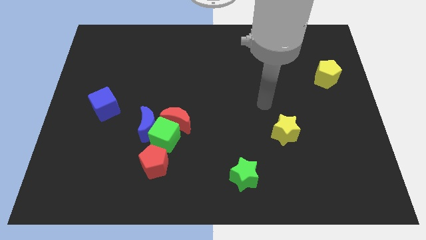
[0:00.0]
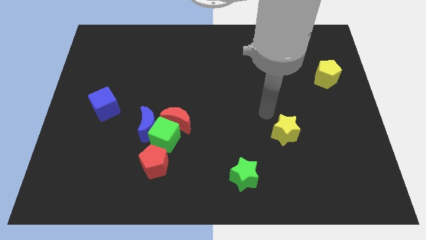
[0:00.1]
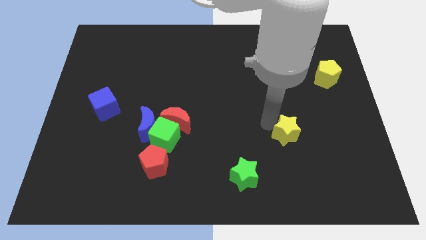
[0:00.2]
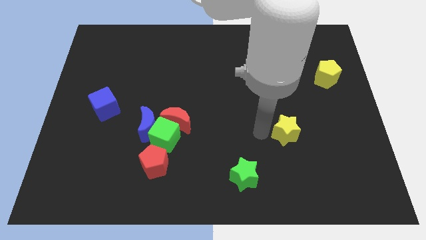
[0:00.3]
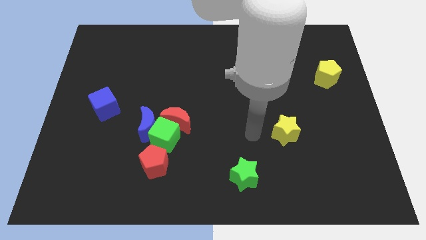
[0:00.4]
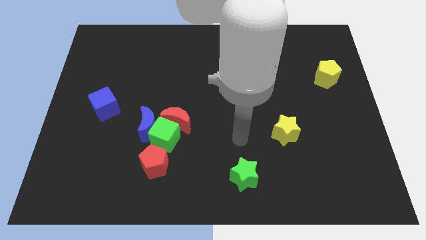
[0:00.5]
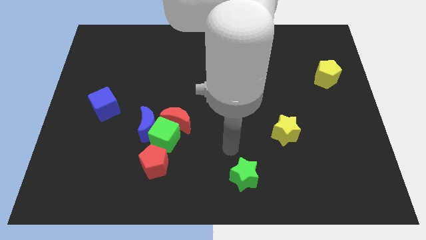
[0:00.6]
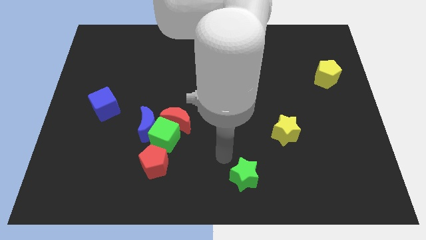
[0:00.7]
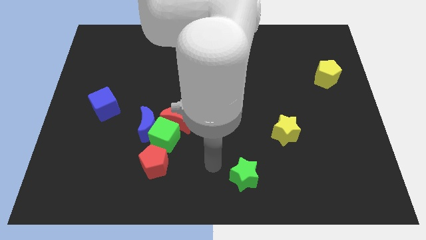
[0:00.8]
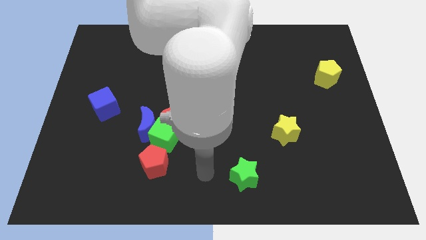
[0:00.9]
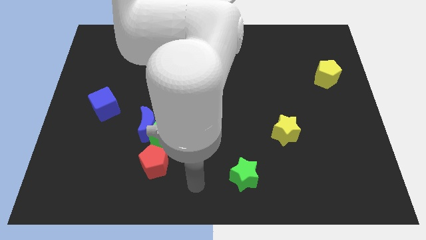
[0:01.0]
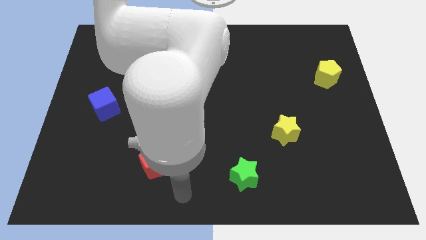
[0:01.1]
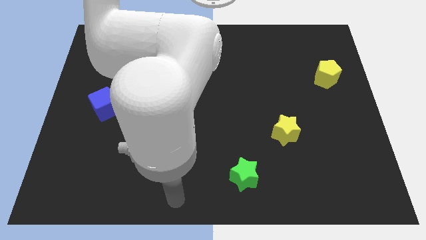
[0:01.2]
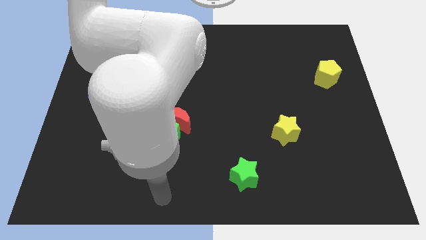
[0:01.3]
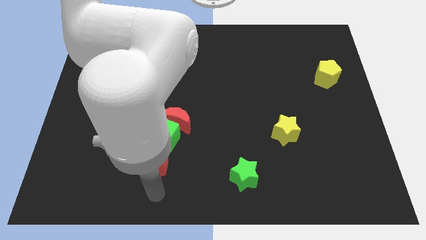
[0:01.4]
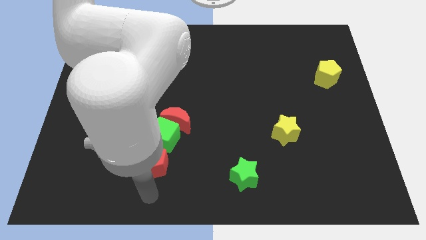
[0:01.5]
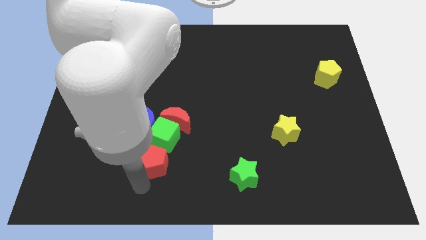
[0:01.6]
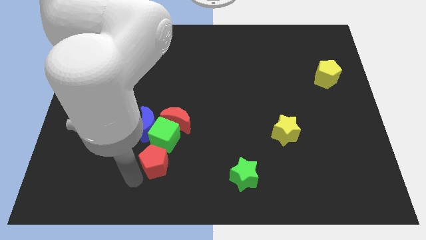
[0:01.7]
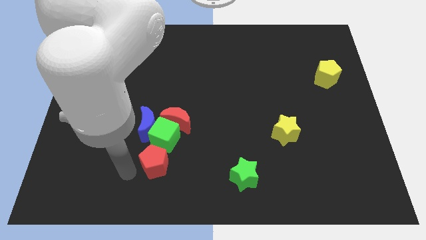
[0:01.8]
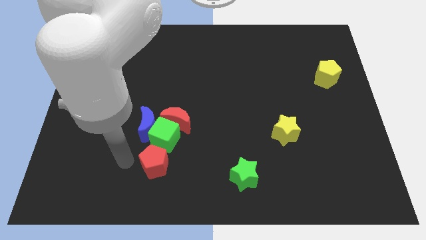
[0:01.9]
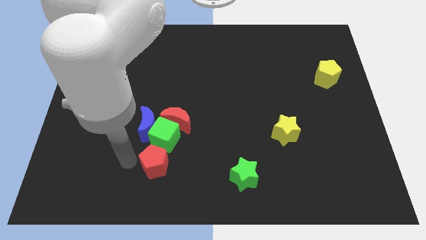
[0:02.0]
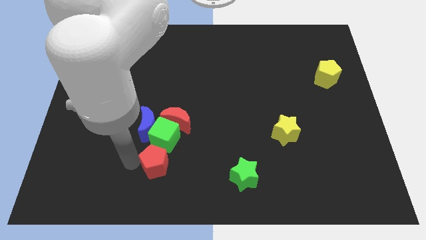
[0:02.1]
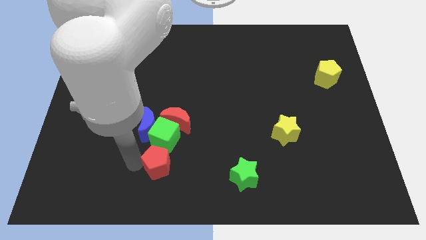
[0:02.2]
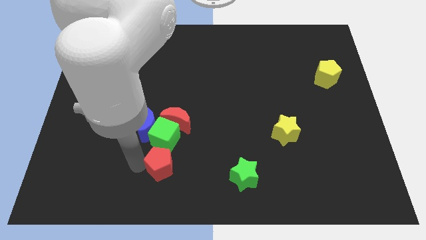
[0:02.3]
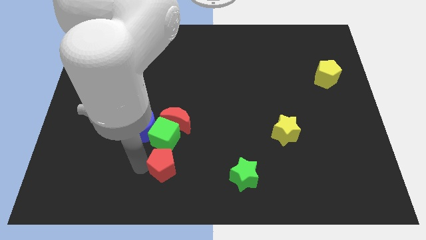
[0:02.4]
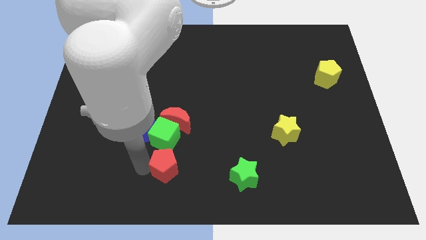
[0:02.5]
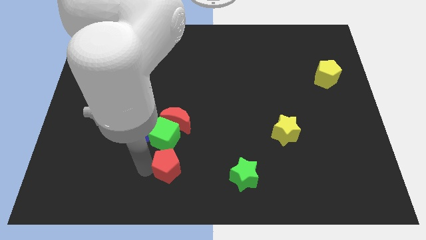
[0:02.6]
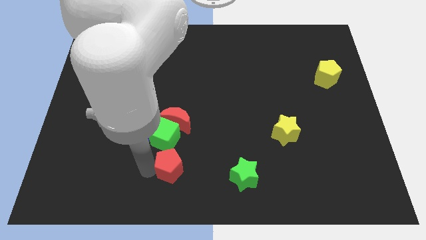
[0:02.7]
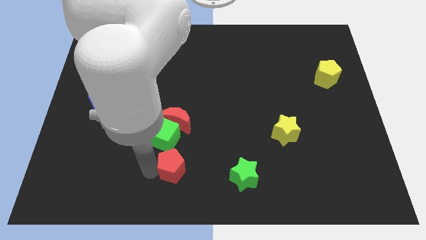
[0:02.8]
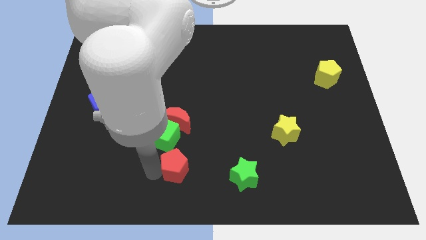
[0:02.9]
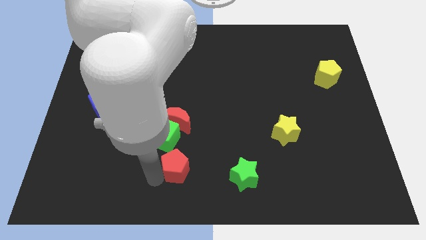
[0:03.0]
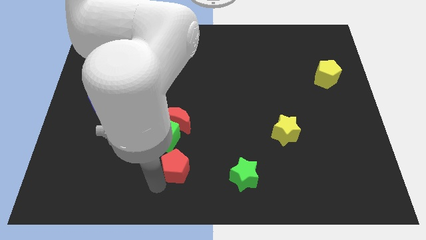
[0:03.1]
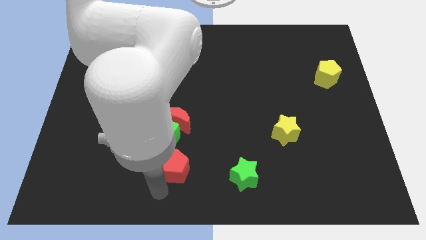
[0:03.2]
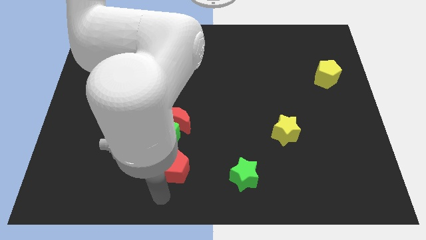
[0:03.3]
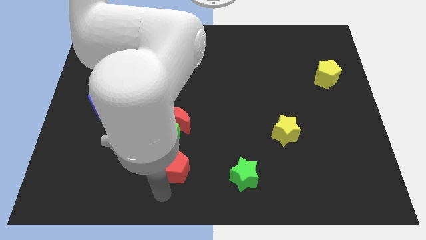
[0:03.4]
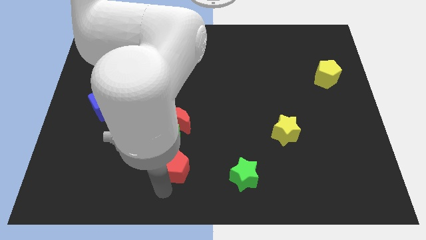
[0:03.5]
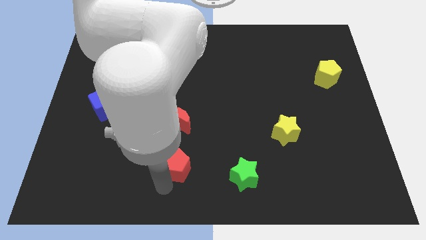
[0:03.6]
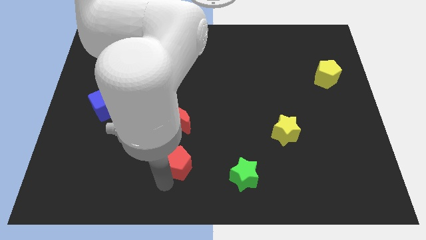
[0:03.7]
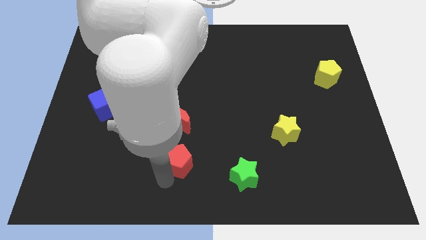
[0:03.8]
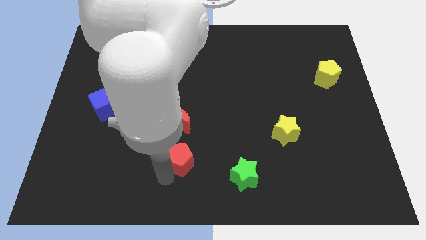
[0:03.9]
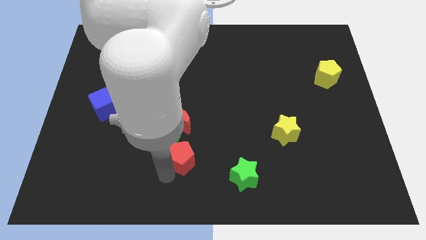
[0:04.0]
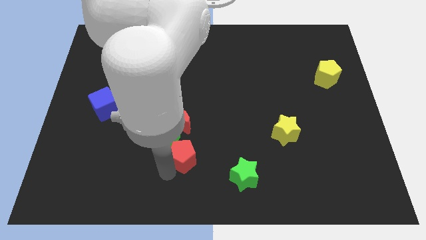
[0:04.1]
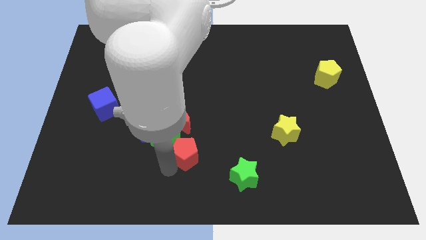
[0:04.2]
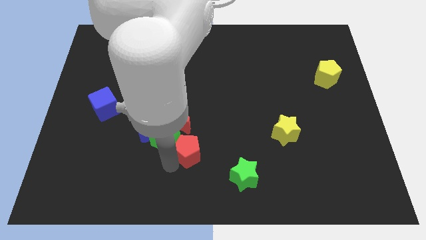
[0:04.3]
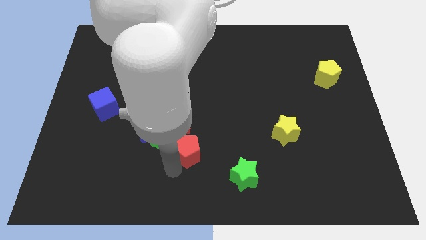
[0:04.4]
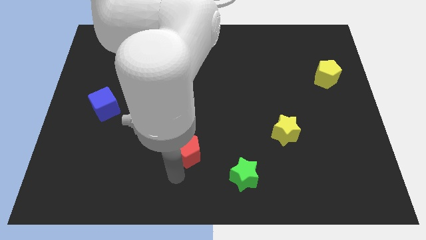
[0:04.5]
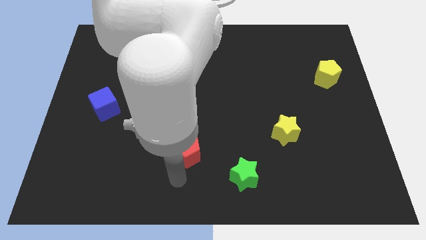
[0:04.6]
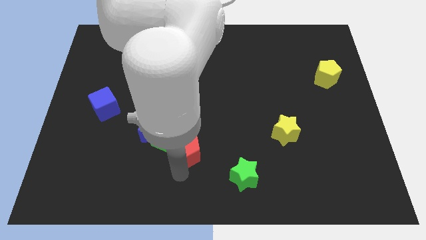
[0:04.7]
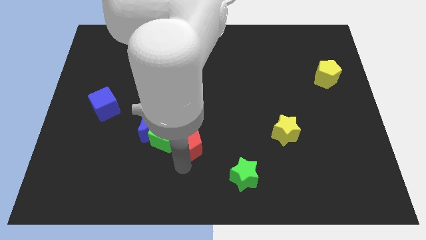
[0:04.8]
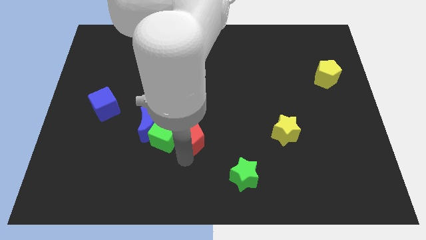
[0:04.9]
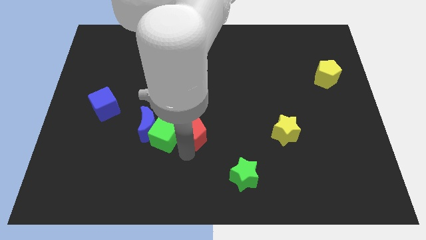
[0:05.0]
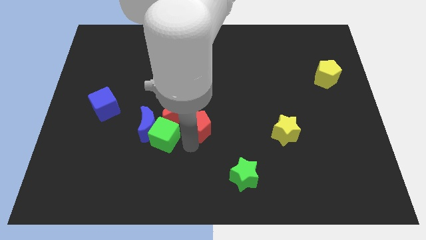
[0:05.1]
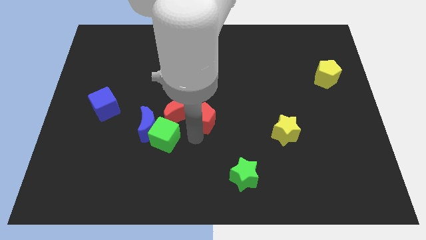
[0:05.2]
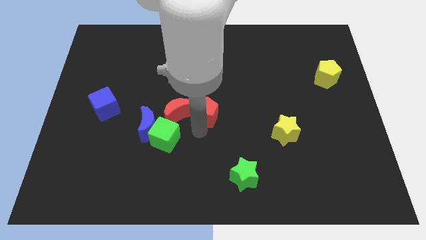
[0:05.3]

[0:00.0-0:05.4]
put the red pentagon diagonally up and to the right of the red moon

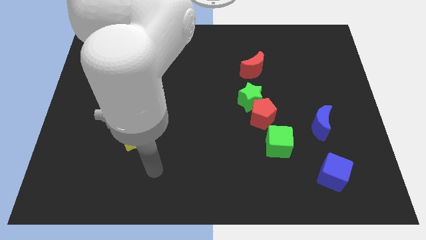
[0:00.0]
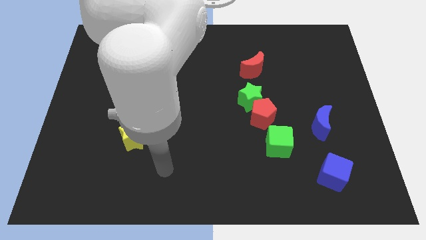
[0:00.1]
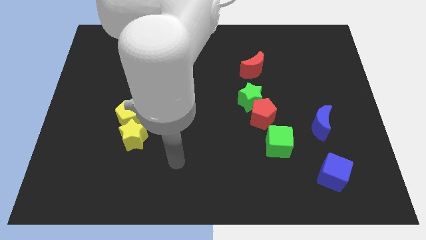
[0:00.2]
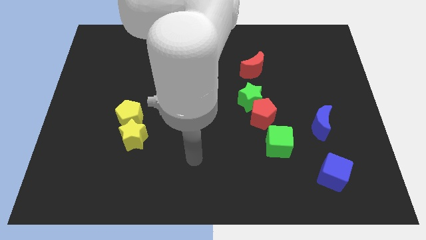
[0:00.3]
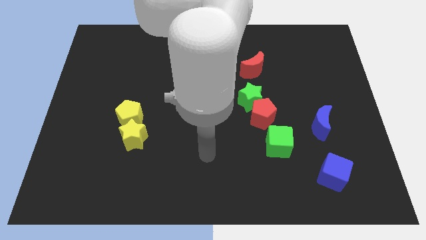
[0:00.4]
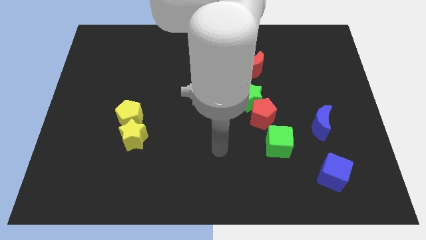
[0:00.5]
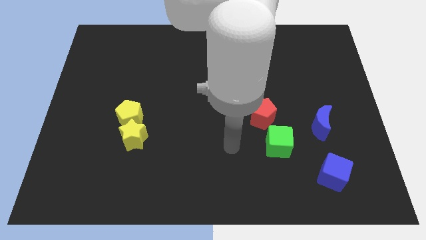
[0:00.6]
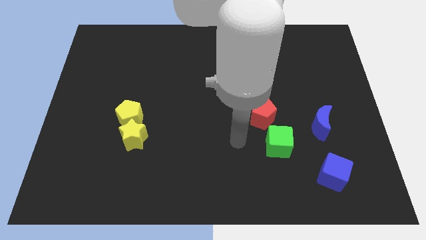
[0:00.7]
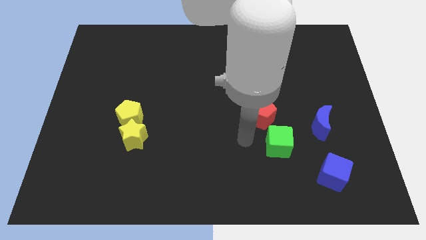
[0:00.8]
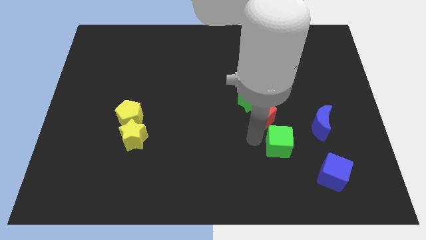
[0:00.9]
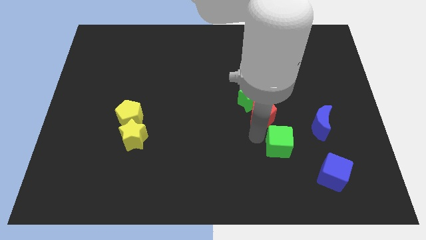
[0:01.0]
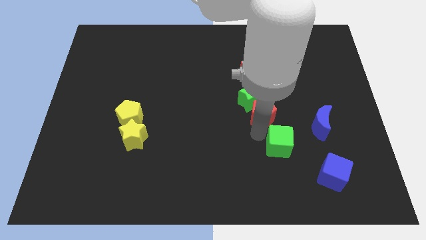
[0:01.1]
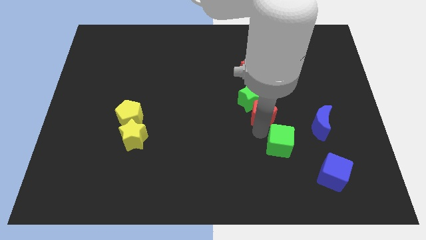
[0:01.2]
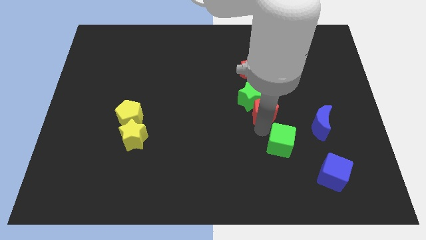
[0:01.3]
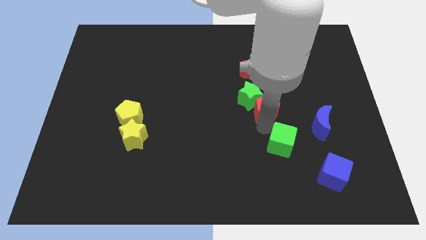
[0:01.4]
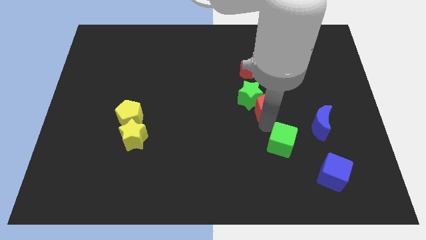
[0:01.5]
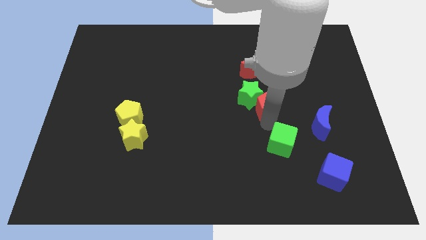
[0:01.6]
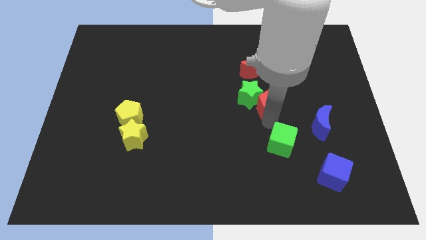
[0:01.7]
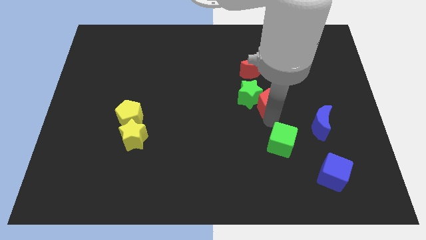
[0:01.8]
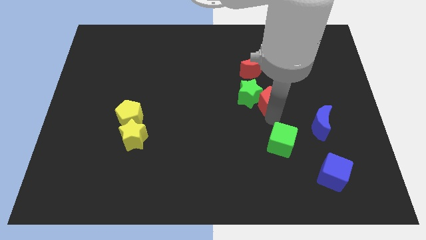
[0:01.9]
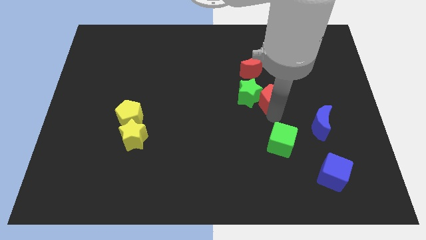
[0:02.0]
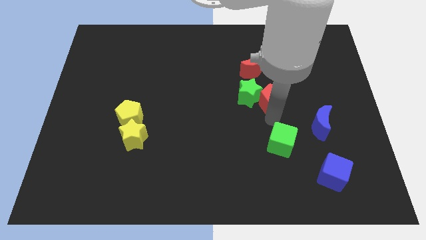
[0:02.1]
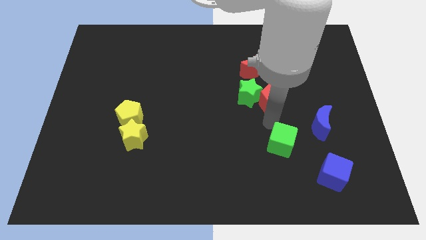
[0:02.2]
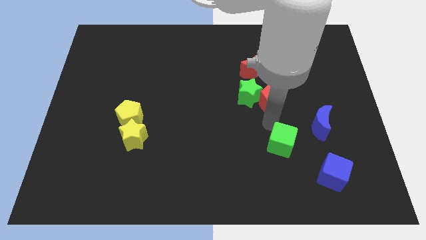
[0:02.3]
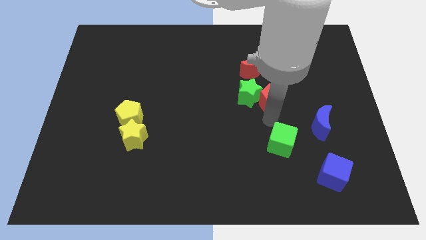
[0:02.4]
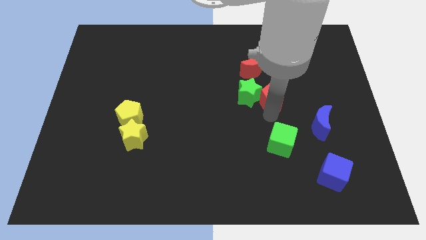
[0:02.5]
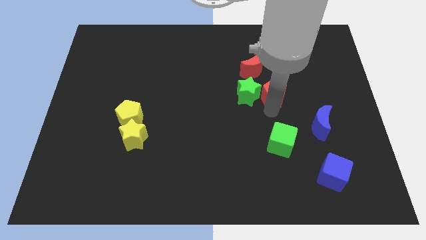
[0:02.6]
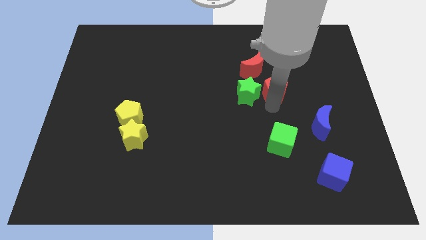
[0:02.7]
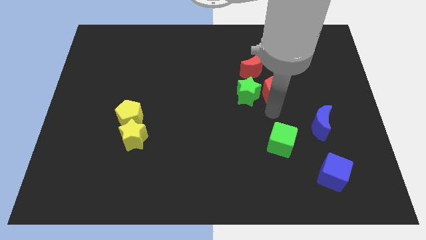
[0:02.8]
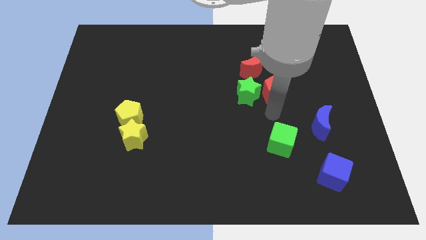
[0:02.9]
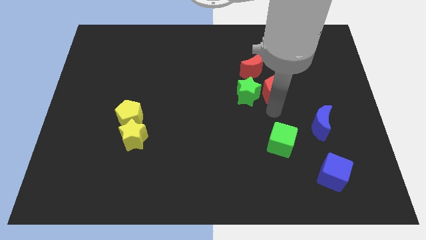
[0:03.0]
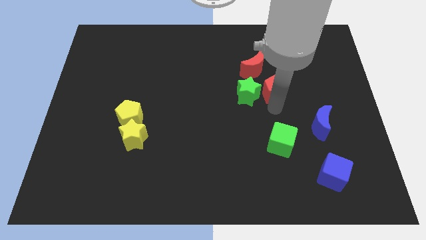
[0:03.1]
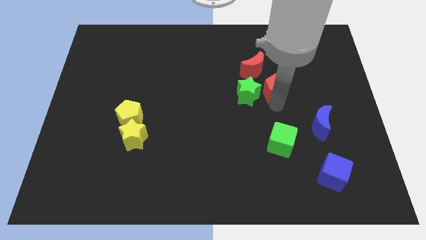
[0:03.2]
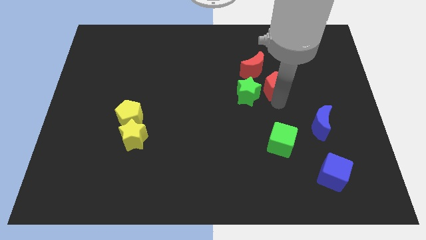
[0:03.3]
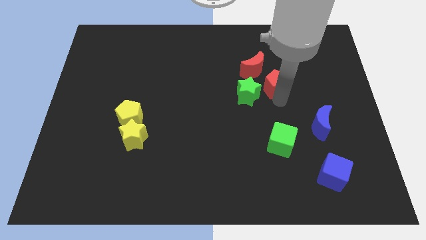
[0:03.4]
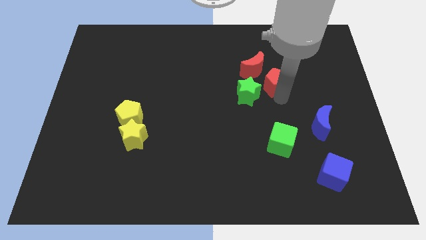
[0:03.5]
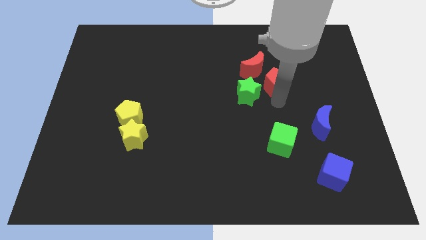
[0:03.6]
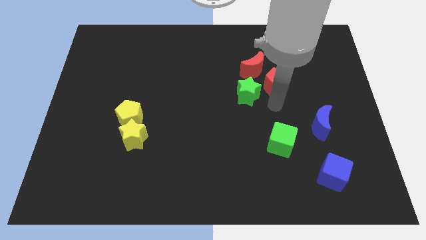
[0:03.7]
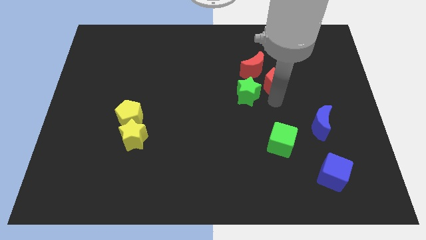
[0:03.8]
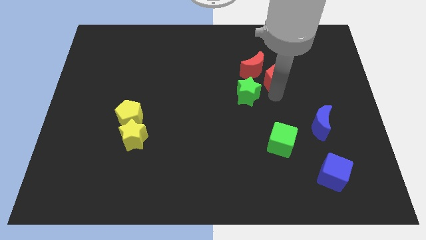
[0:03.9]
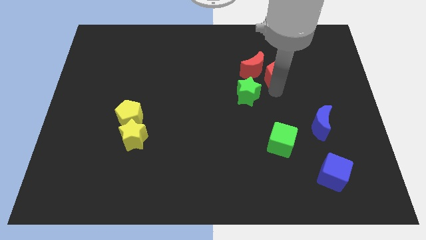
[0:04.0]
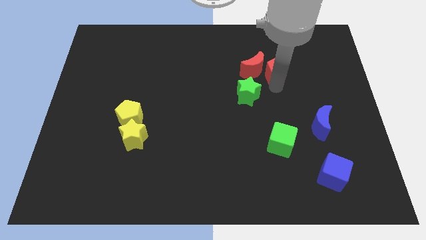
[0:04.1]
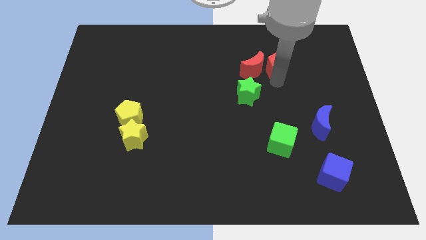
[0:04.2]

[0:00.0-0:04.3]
move the red pentagon to the top right side of the red moon
